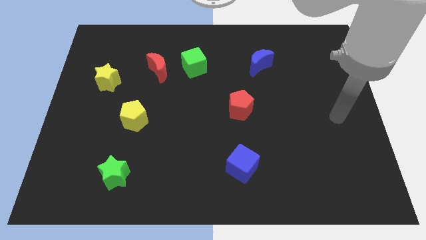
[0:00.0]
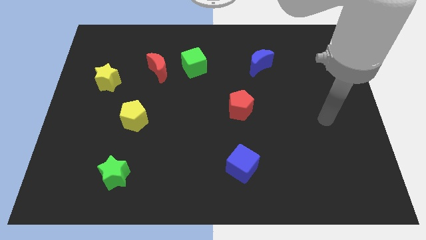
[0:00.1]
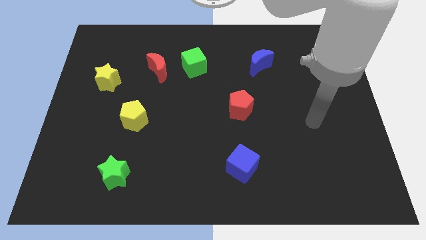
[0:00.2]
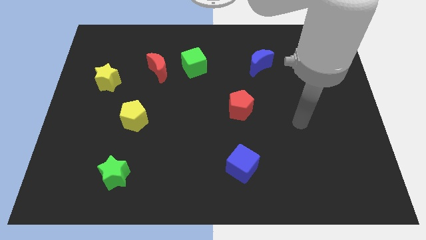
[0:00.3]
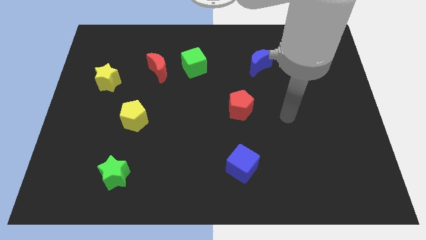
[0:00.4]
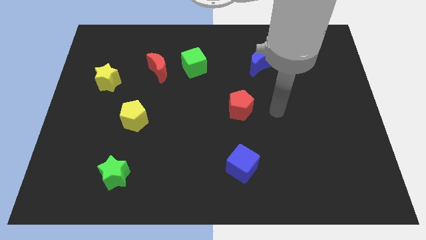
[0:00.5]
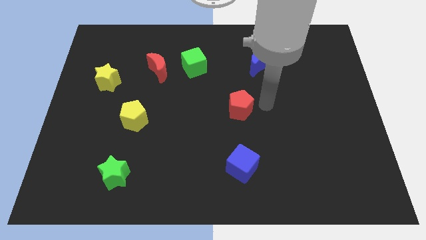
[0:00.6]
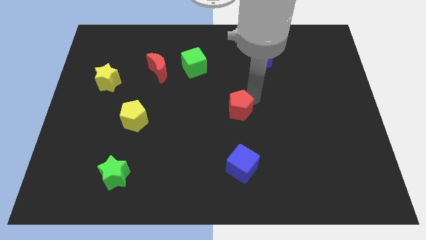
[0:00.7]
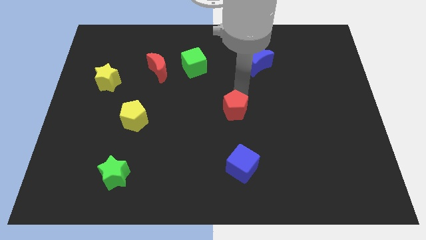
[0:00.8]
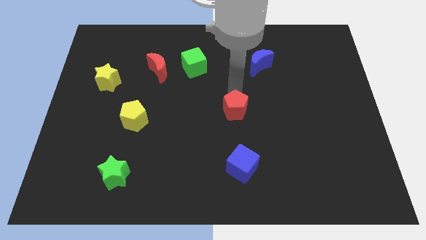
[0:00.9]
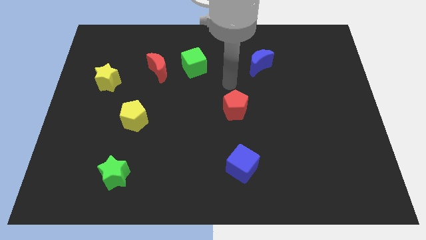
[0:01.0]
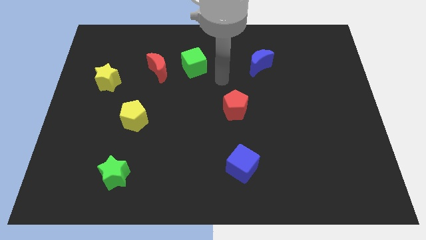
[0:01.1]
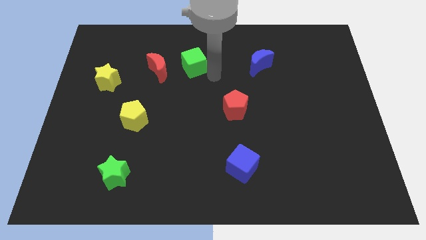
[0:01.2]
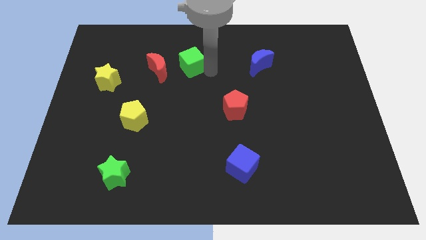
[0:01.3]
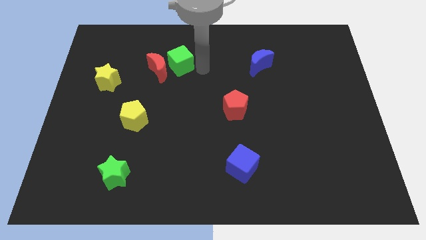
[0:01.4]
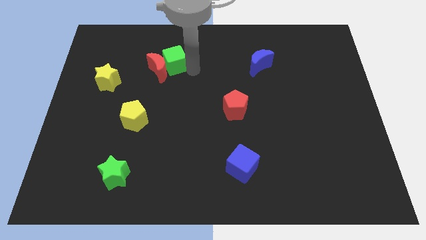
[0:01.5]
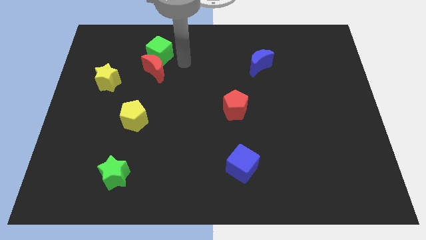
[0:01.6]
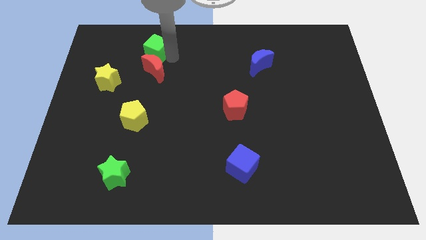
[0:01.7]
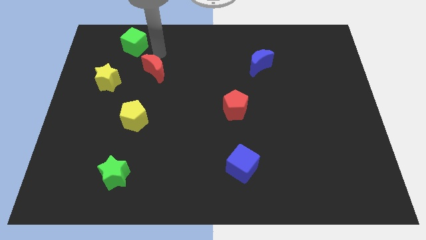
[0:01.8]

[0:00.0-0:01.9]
pull the red moon apart from the green cube

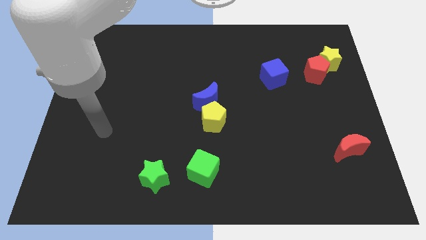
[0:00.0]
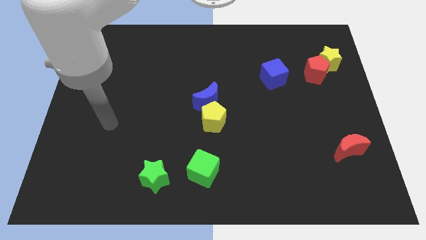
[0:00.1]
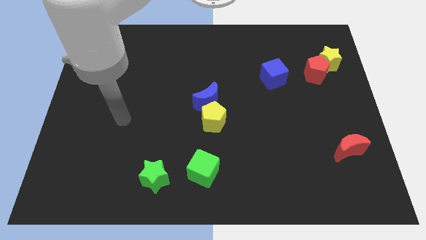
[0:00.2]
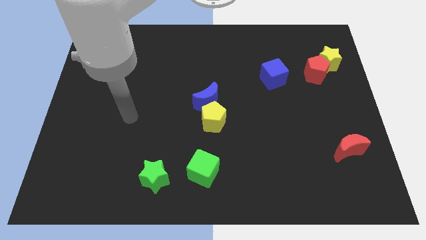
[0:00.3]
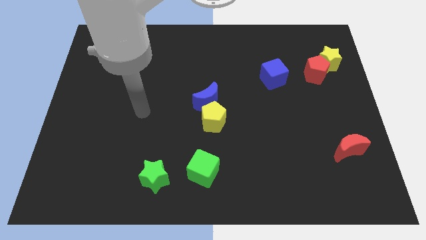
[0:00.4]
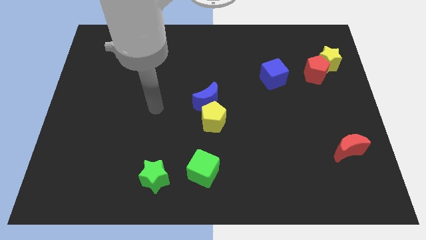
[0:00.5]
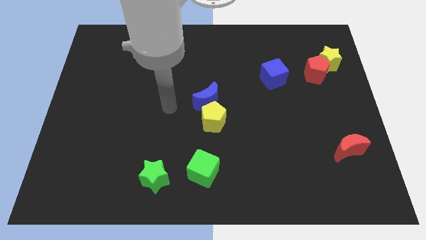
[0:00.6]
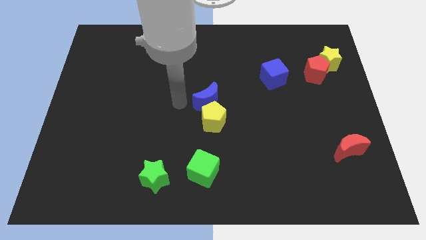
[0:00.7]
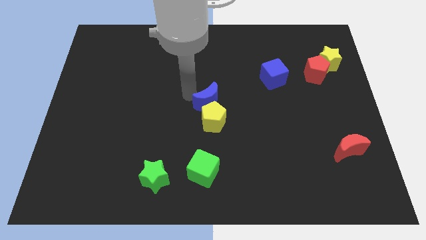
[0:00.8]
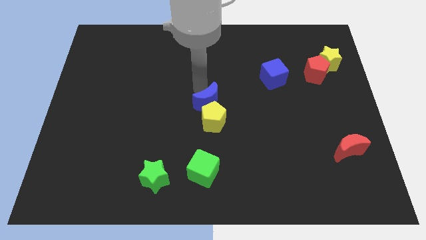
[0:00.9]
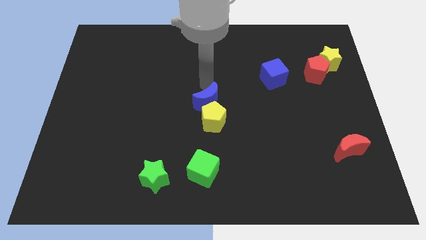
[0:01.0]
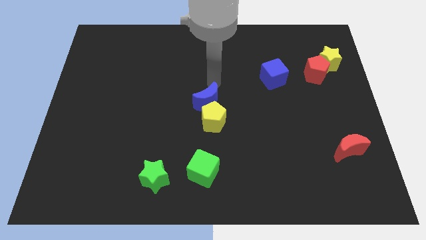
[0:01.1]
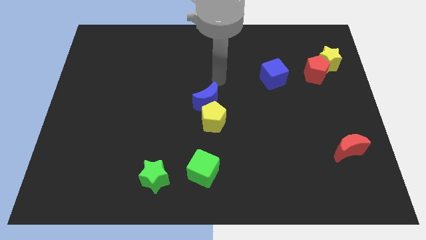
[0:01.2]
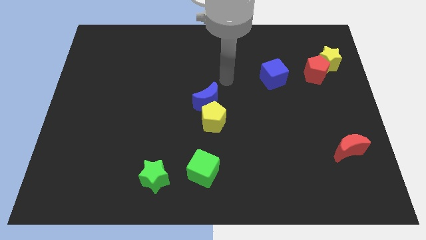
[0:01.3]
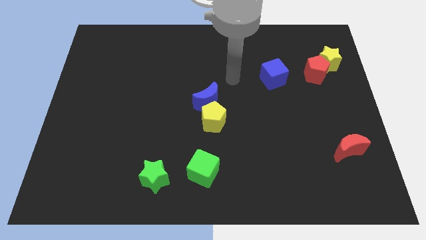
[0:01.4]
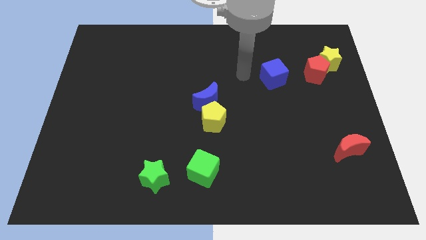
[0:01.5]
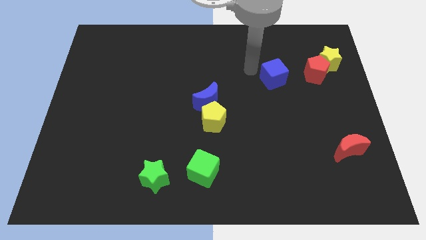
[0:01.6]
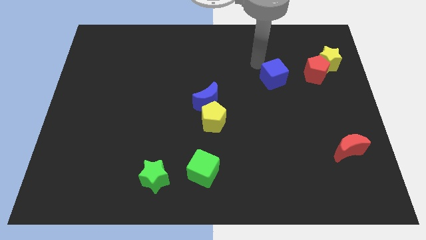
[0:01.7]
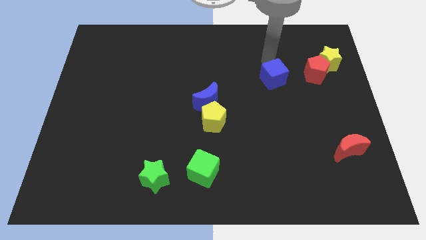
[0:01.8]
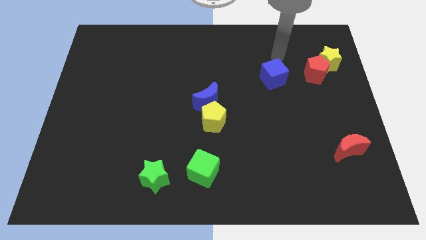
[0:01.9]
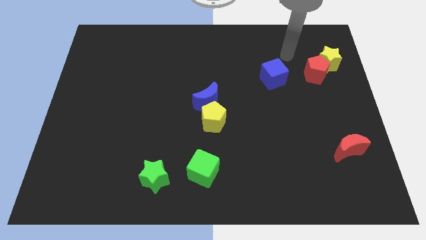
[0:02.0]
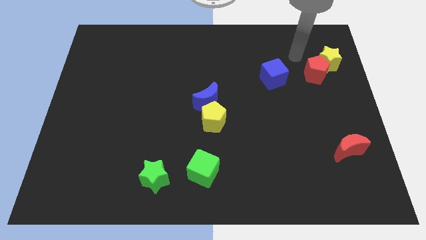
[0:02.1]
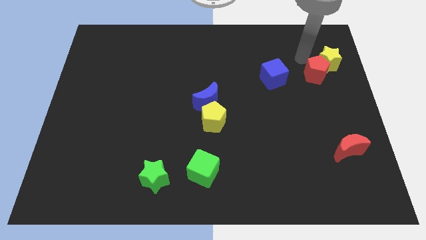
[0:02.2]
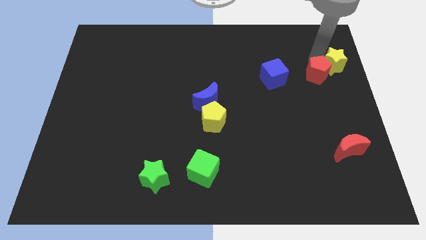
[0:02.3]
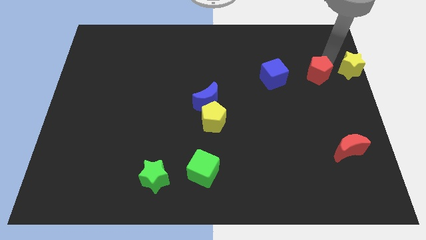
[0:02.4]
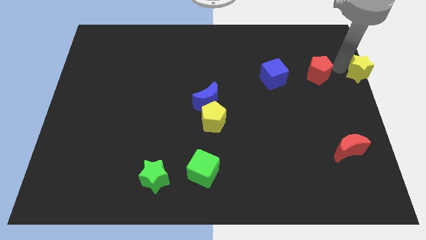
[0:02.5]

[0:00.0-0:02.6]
separate the red pentagon from the yellow star

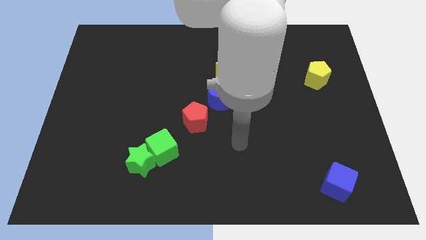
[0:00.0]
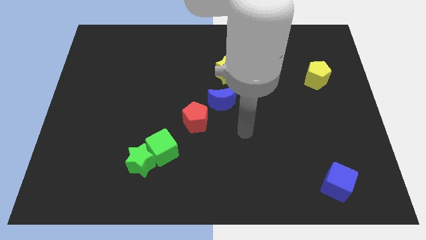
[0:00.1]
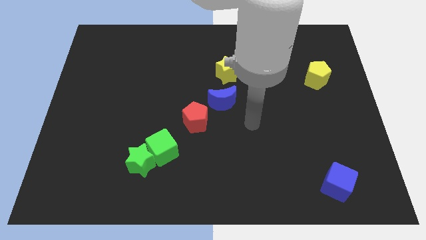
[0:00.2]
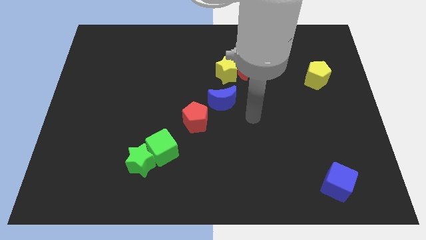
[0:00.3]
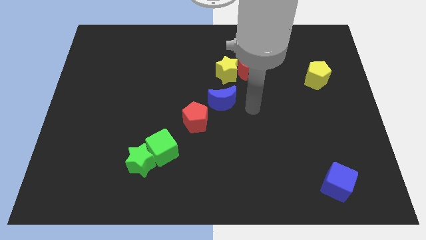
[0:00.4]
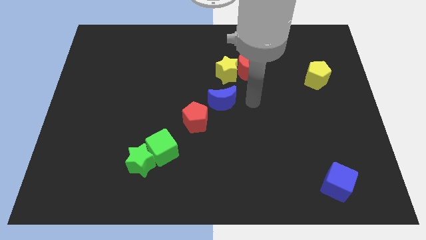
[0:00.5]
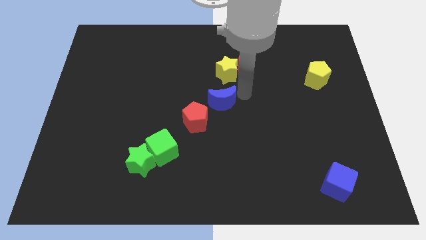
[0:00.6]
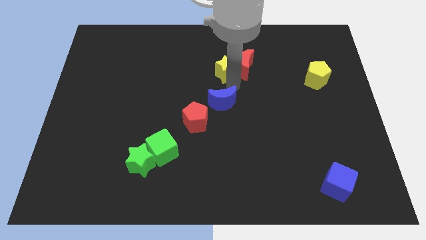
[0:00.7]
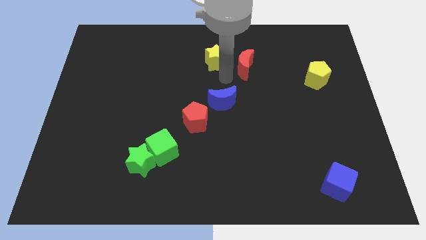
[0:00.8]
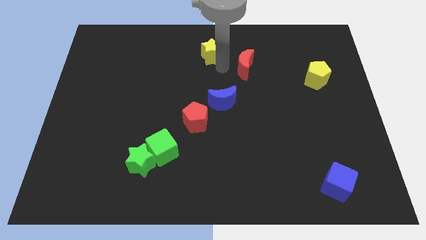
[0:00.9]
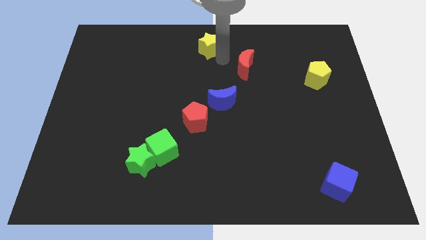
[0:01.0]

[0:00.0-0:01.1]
pull the red moon apart from the yellow star

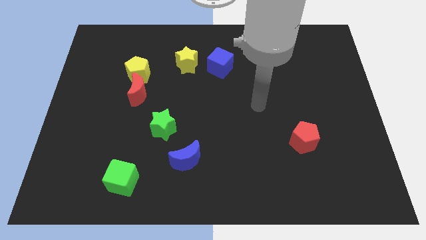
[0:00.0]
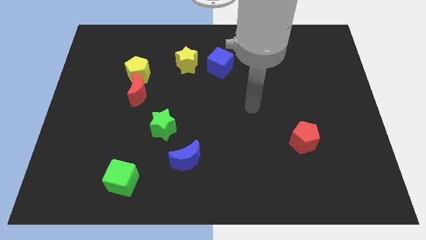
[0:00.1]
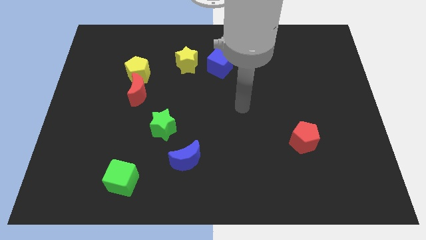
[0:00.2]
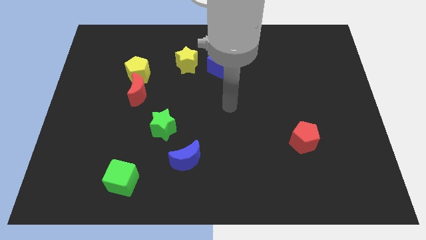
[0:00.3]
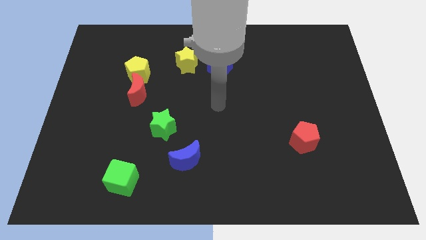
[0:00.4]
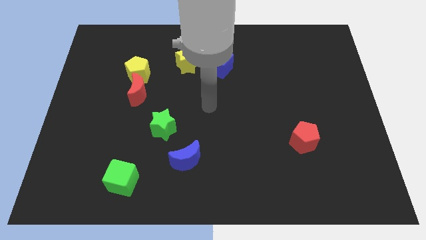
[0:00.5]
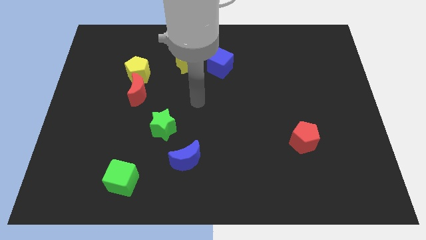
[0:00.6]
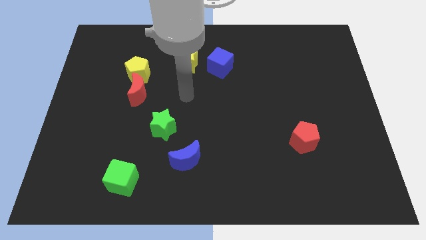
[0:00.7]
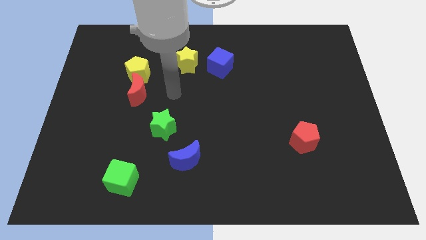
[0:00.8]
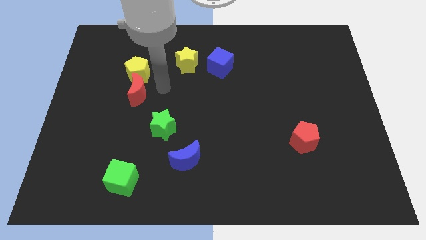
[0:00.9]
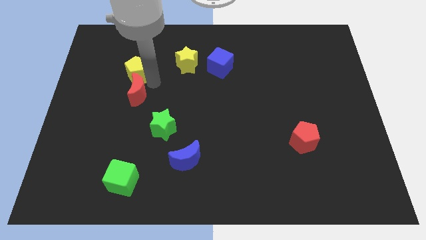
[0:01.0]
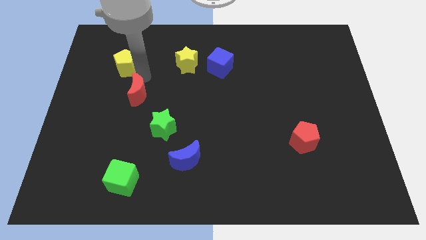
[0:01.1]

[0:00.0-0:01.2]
separate the red moon from the yellow pentagon

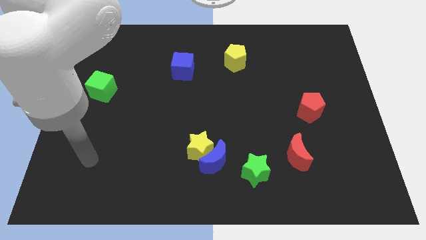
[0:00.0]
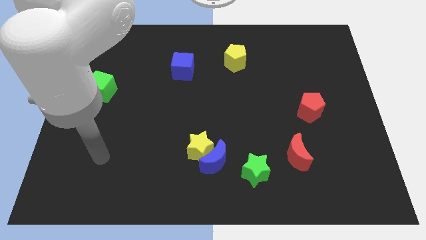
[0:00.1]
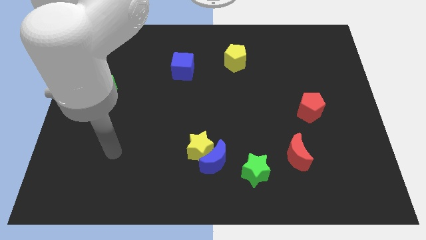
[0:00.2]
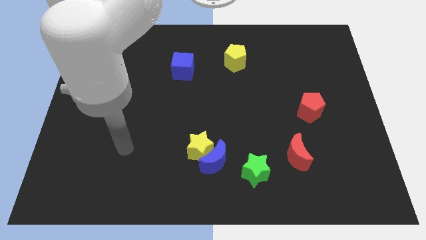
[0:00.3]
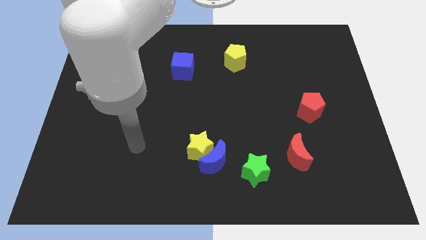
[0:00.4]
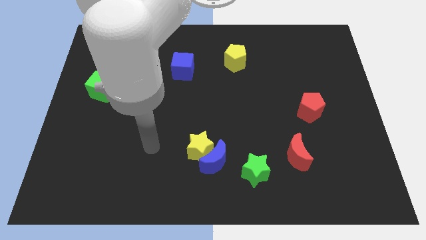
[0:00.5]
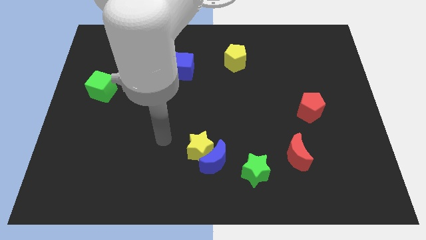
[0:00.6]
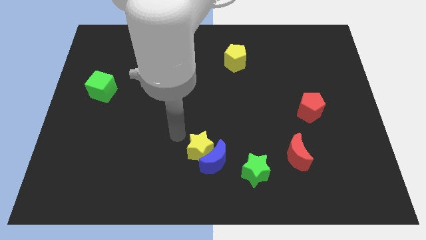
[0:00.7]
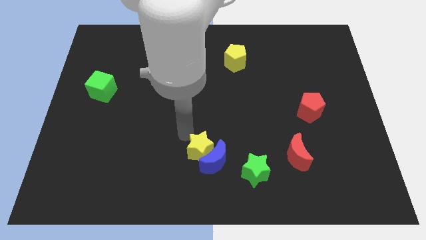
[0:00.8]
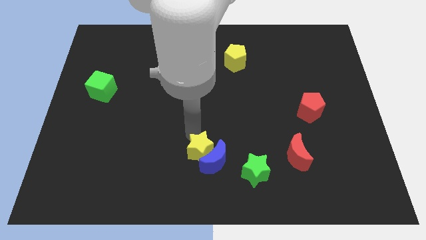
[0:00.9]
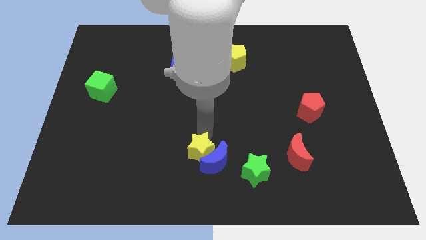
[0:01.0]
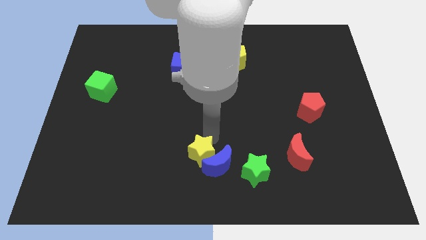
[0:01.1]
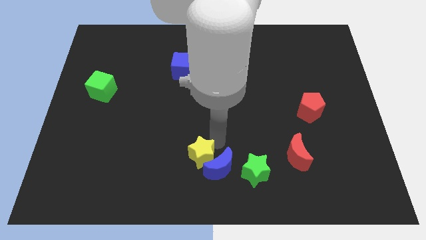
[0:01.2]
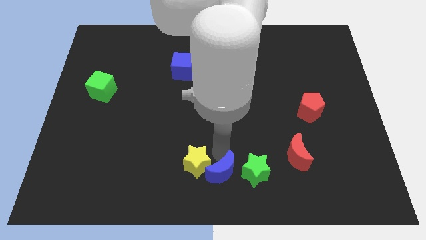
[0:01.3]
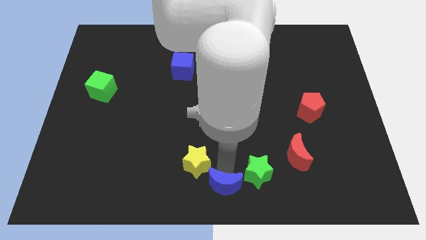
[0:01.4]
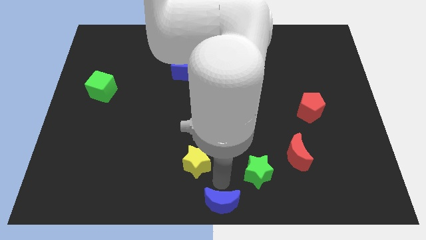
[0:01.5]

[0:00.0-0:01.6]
pull the yellow star apart from the blue moon

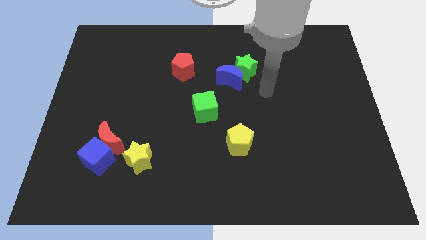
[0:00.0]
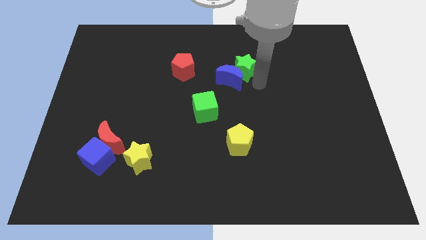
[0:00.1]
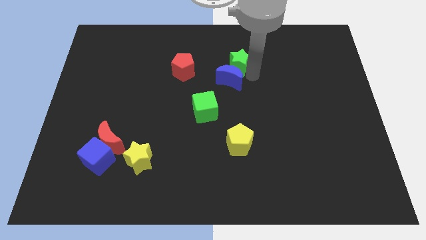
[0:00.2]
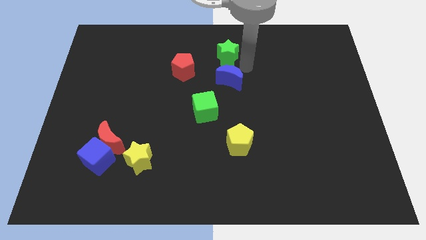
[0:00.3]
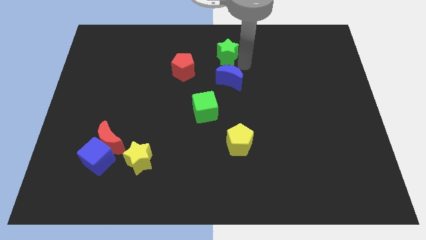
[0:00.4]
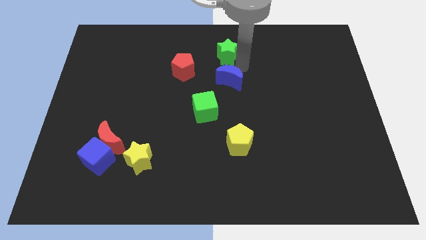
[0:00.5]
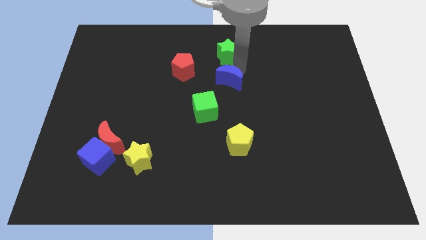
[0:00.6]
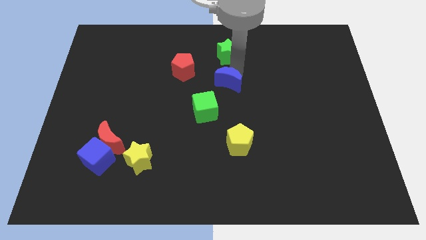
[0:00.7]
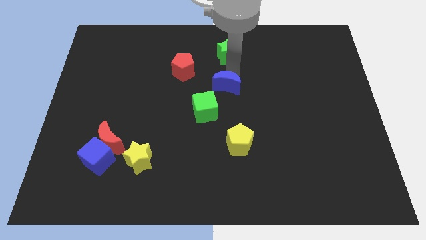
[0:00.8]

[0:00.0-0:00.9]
move the blue moon away from the green star
